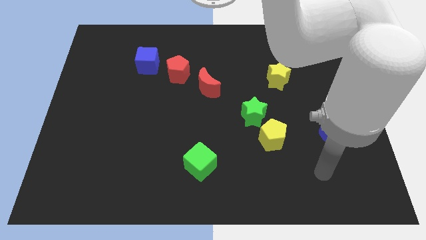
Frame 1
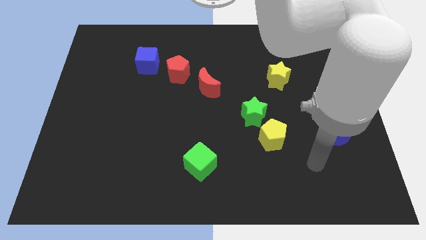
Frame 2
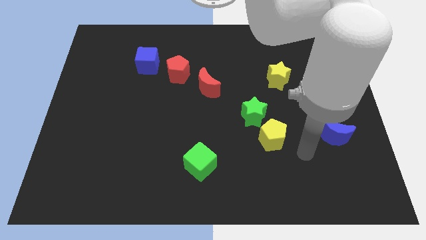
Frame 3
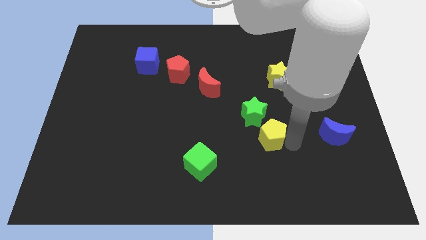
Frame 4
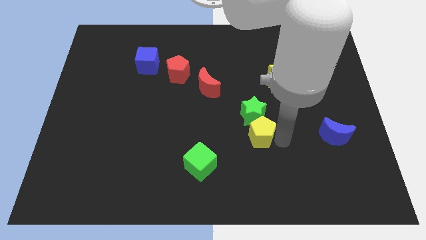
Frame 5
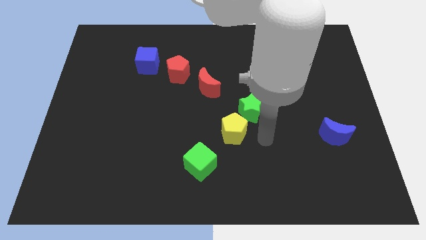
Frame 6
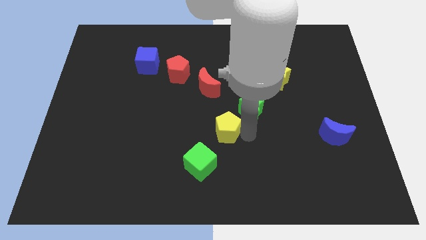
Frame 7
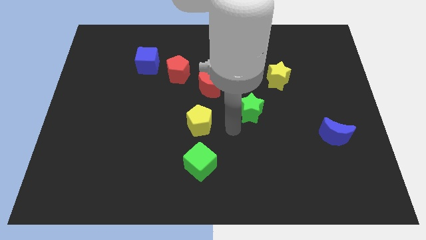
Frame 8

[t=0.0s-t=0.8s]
move the green star away from the yellow pentagon

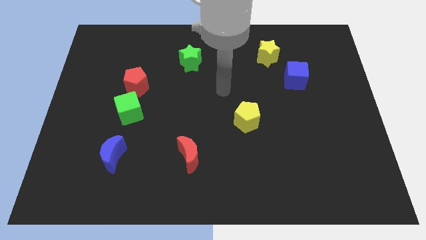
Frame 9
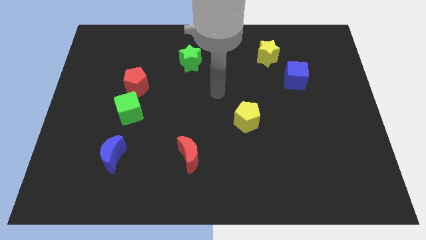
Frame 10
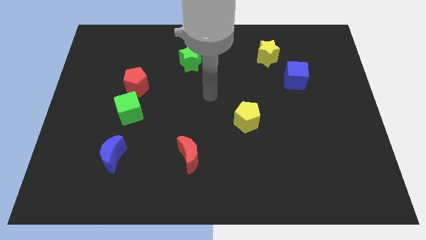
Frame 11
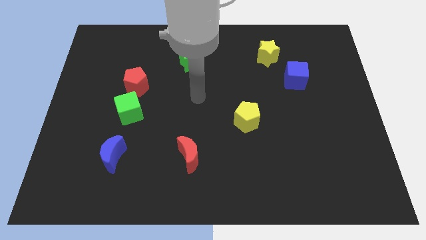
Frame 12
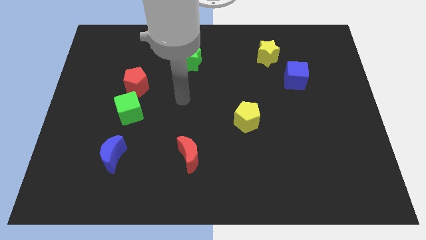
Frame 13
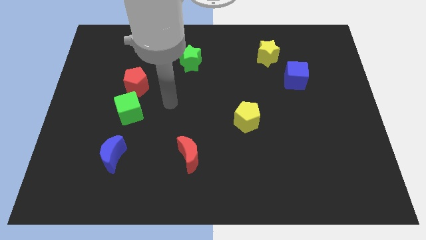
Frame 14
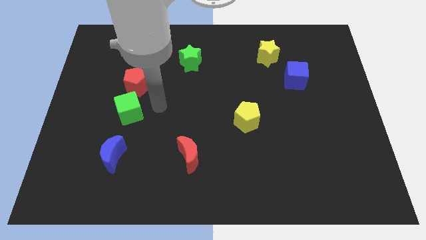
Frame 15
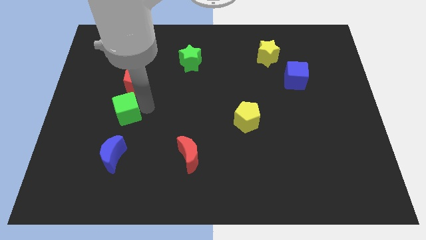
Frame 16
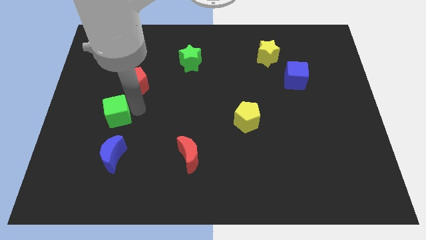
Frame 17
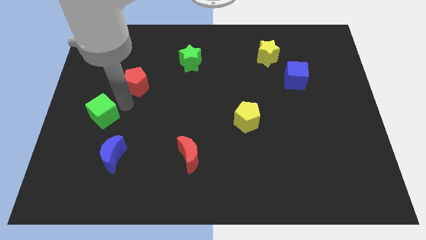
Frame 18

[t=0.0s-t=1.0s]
separate the red pentagon from the green cube

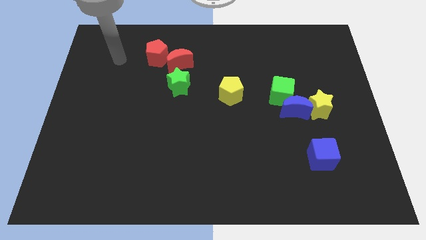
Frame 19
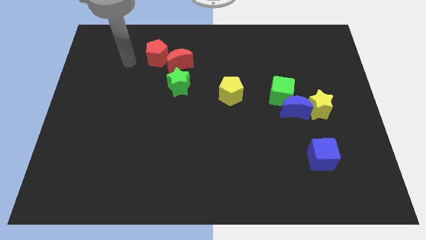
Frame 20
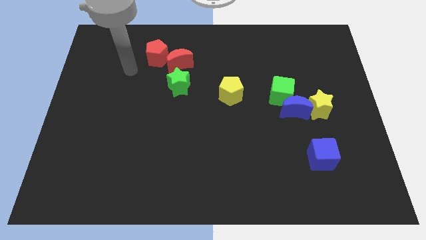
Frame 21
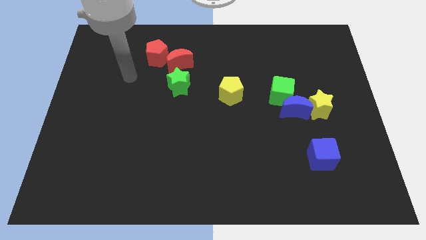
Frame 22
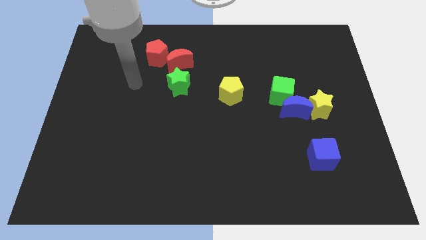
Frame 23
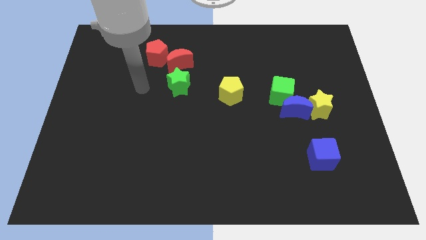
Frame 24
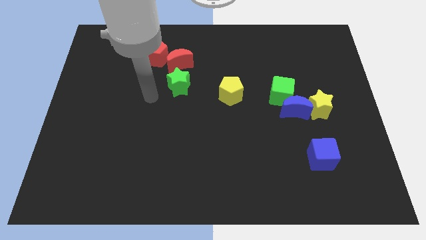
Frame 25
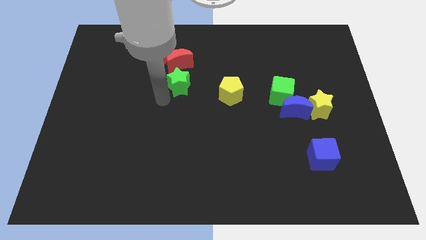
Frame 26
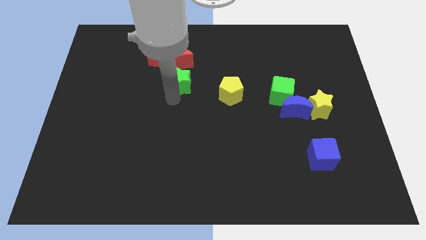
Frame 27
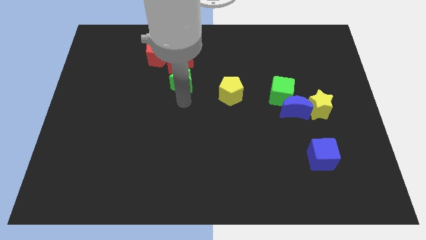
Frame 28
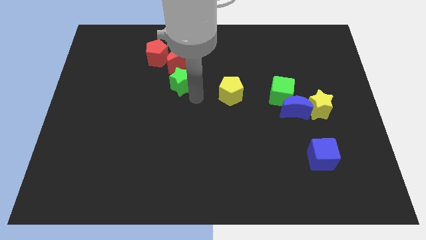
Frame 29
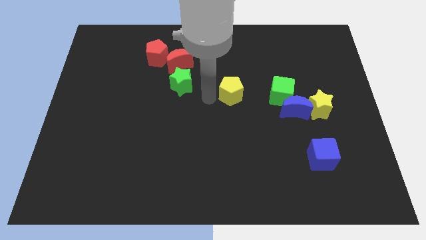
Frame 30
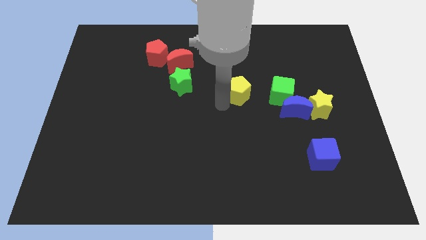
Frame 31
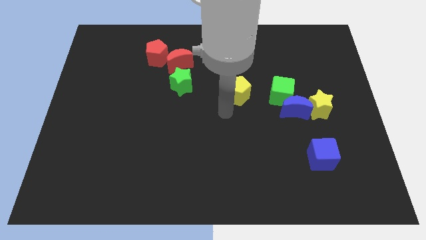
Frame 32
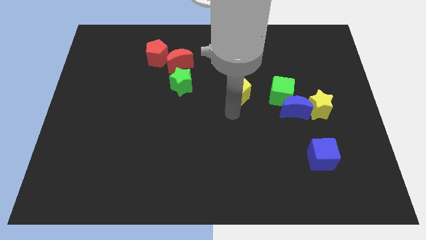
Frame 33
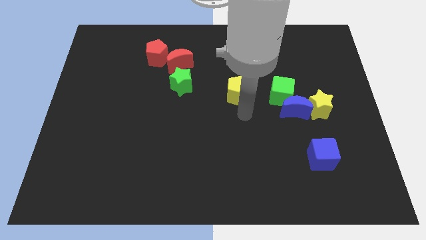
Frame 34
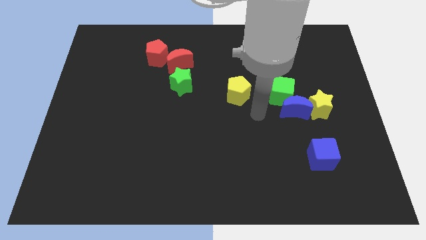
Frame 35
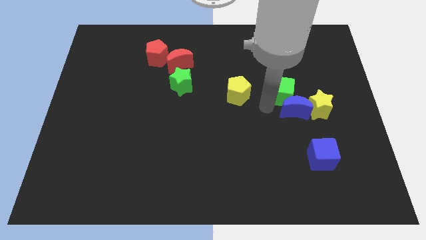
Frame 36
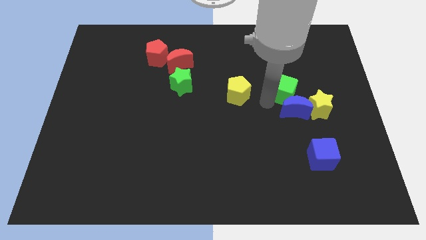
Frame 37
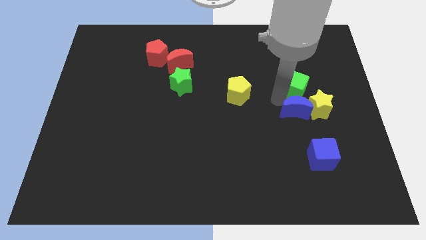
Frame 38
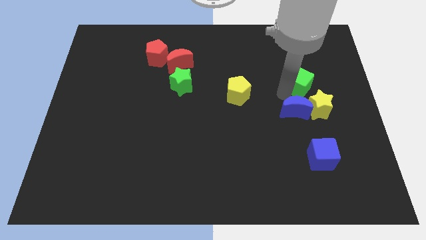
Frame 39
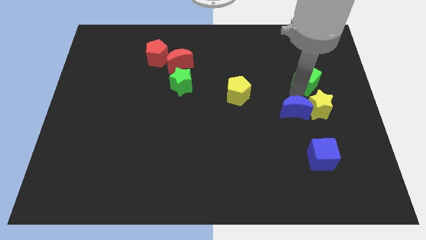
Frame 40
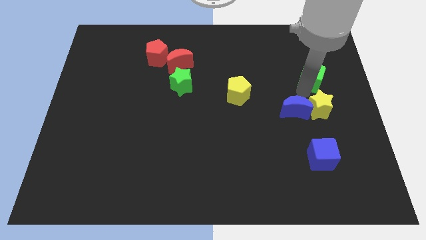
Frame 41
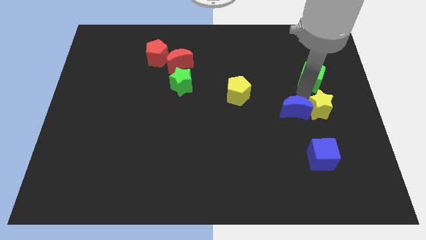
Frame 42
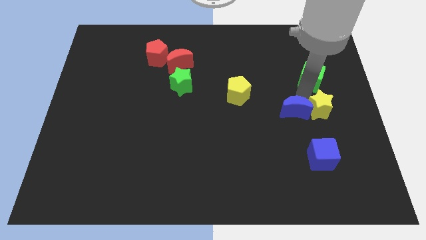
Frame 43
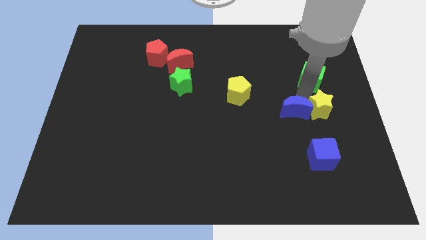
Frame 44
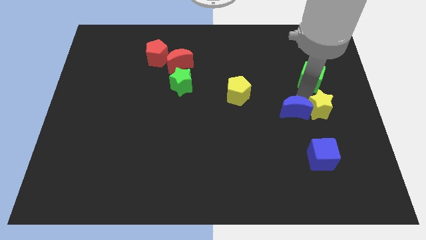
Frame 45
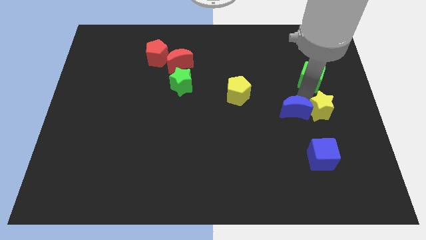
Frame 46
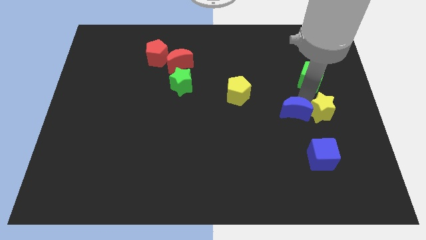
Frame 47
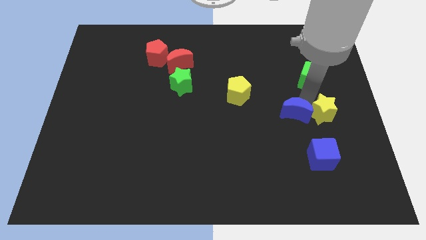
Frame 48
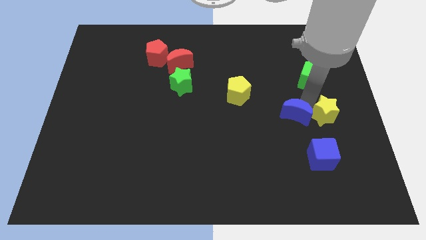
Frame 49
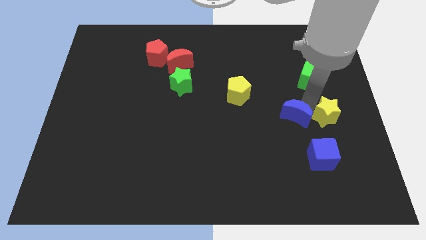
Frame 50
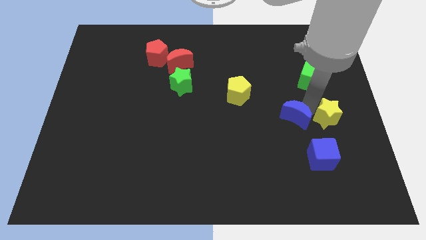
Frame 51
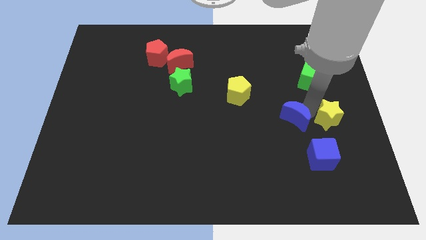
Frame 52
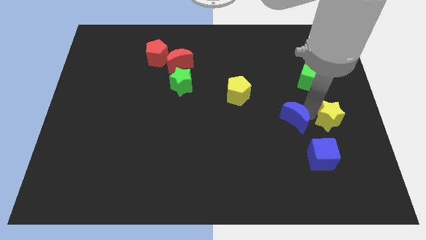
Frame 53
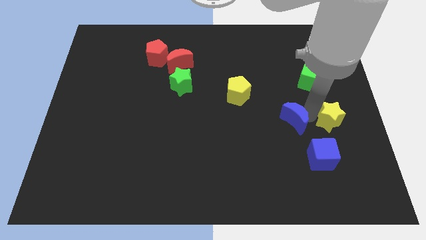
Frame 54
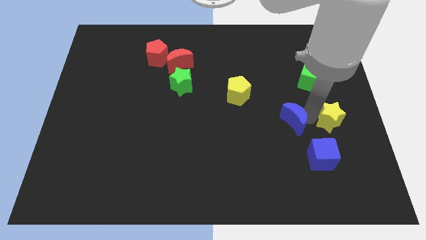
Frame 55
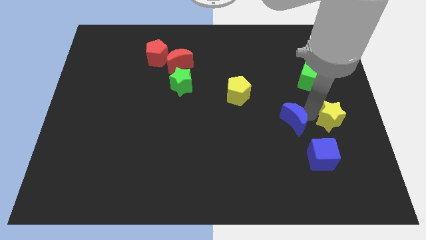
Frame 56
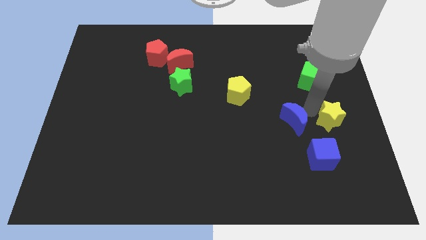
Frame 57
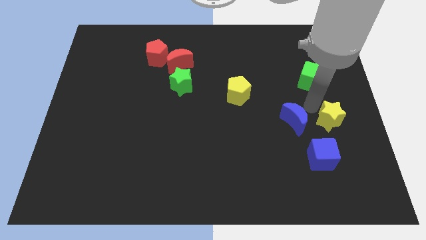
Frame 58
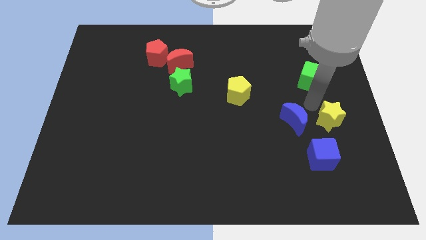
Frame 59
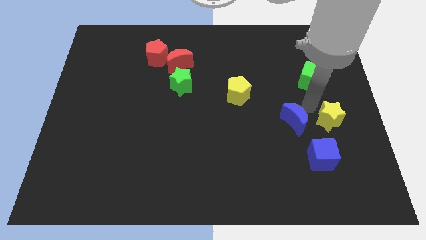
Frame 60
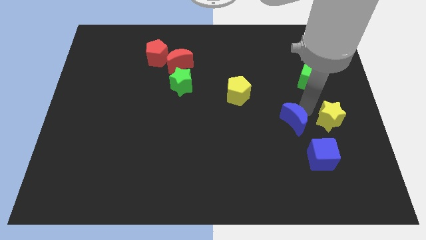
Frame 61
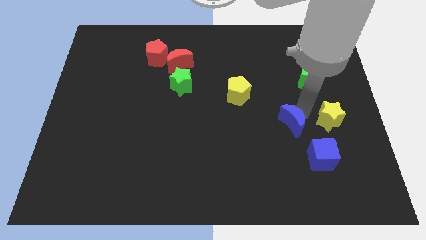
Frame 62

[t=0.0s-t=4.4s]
pull the blue moon apart from the yellow star and green cube

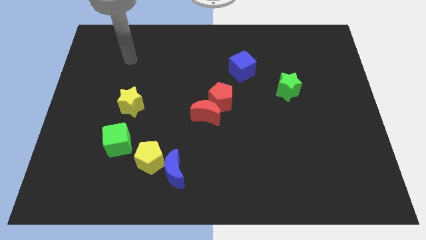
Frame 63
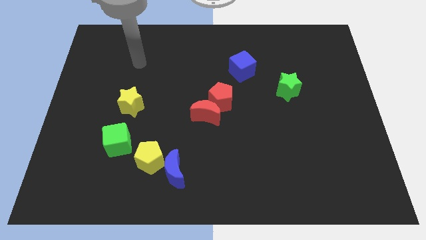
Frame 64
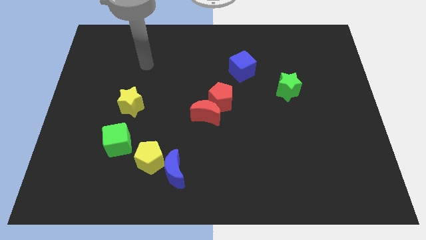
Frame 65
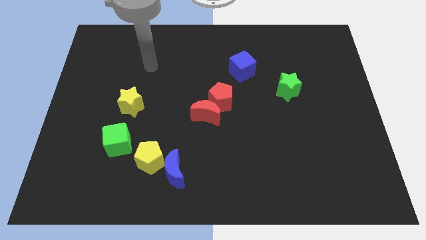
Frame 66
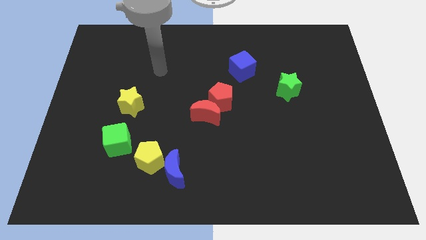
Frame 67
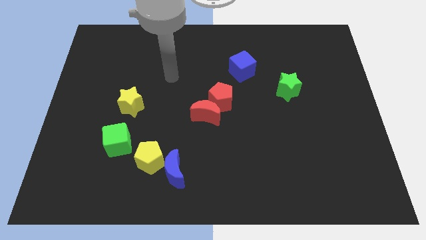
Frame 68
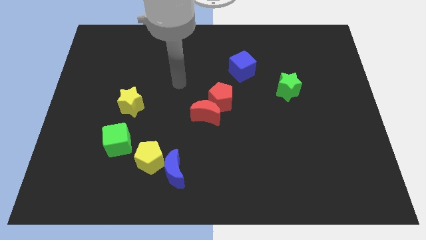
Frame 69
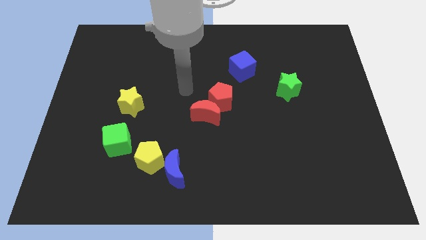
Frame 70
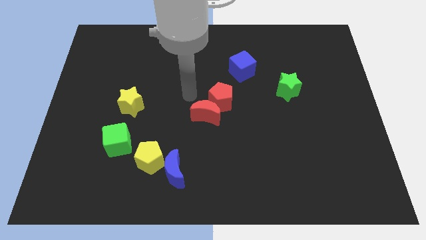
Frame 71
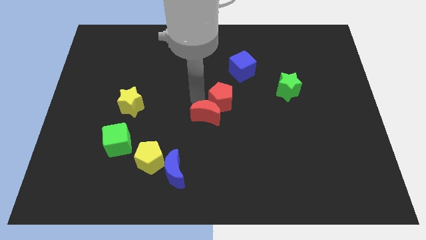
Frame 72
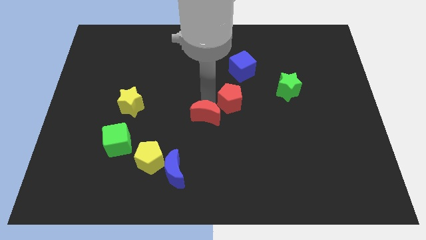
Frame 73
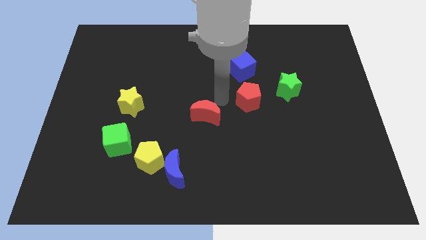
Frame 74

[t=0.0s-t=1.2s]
move the red moon away from the red pentagon

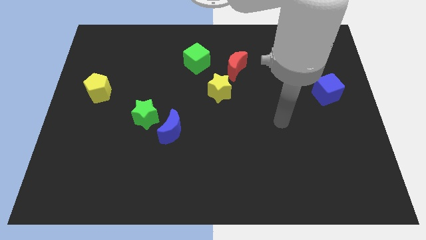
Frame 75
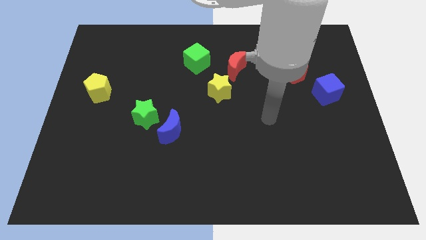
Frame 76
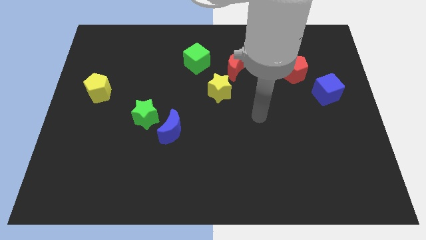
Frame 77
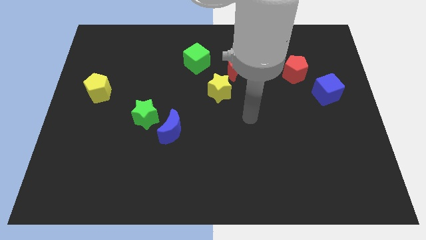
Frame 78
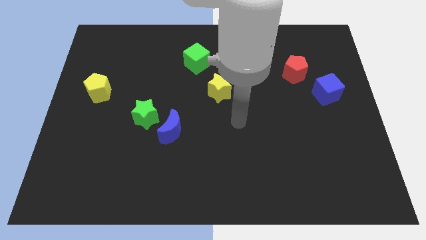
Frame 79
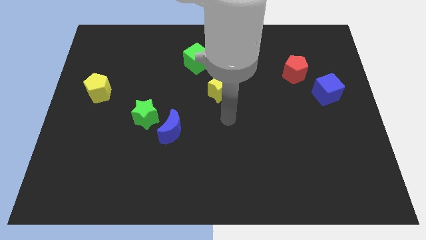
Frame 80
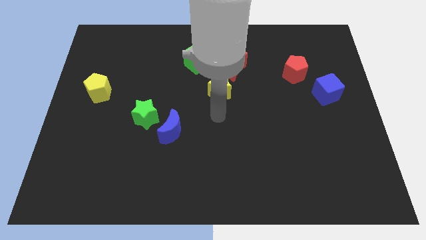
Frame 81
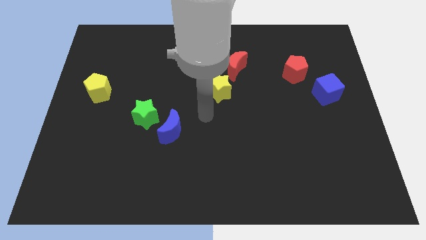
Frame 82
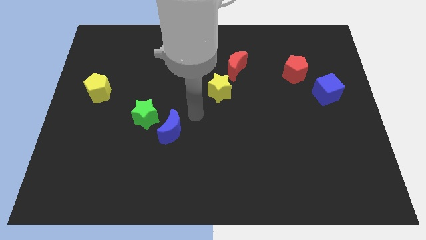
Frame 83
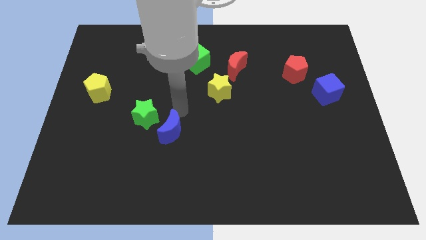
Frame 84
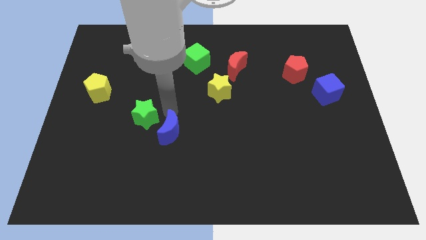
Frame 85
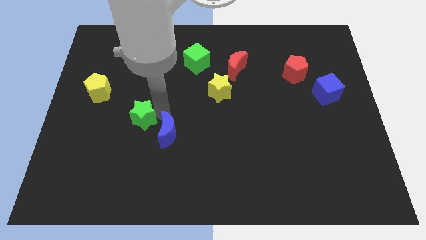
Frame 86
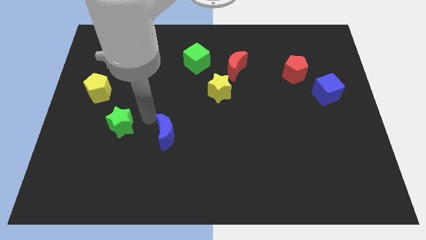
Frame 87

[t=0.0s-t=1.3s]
separate the blue moon from the green star

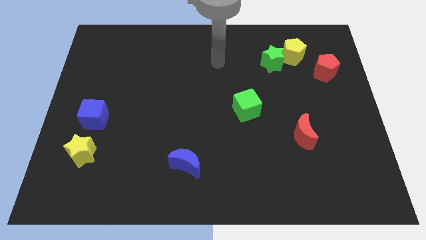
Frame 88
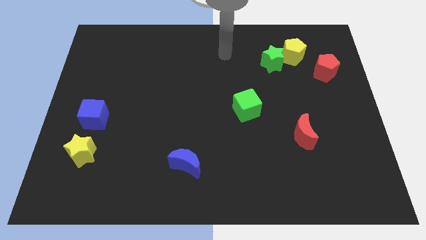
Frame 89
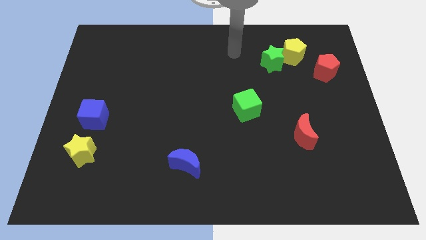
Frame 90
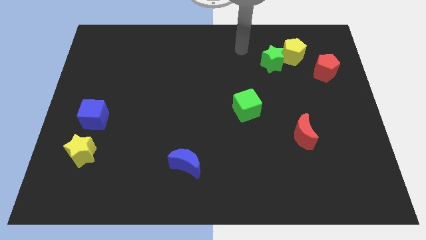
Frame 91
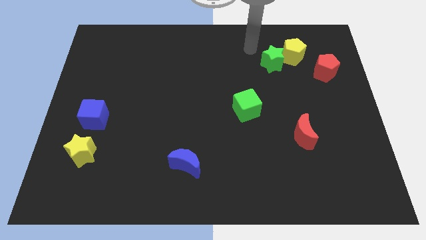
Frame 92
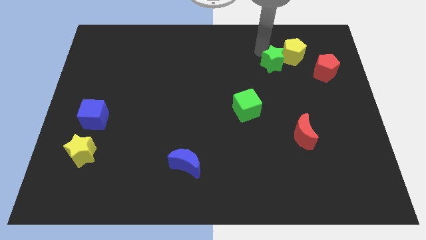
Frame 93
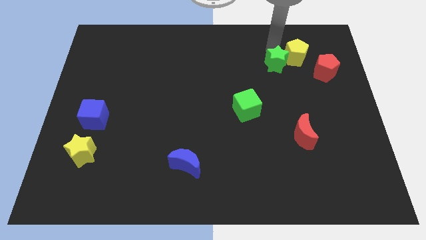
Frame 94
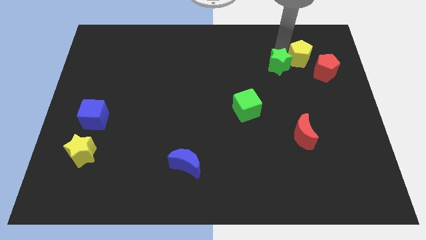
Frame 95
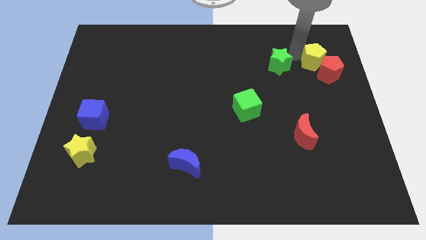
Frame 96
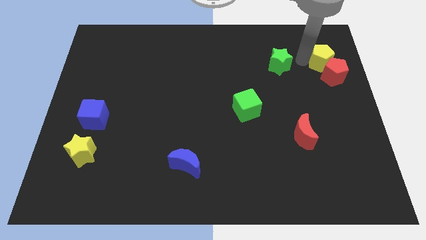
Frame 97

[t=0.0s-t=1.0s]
pull the green star apart from the yellow pentagon
